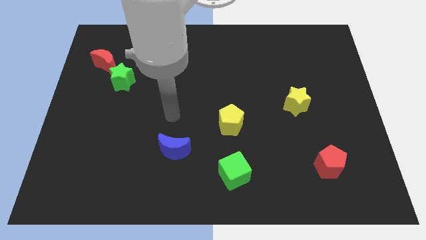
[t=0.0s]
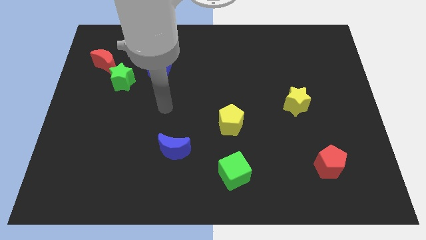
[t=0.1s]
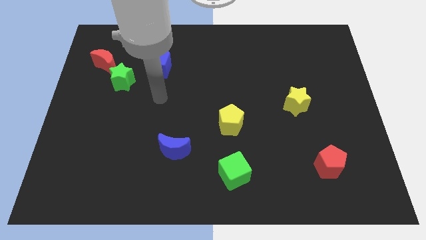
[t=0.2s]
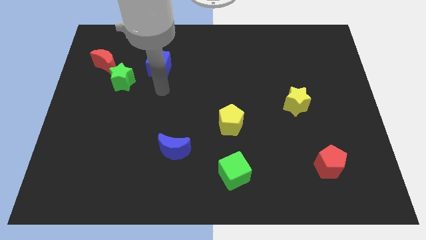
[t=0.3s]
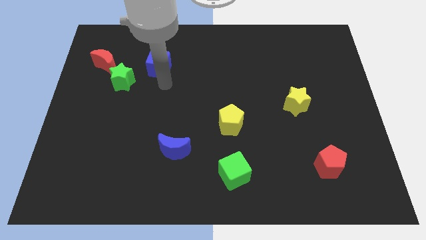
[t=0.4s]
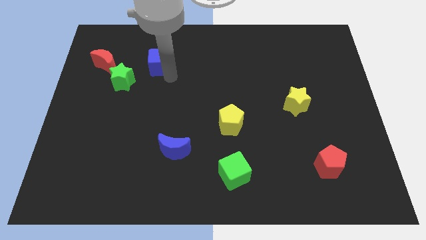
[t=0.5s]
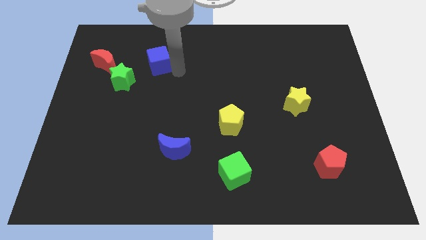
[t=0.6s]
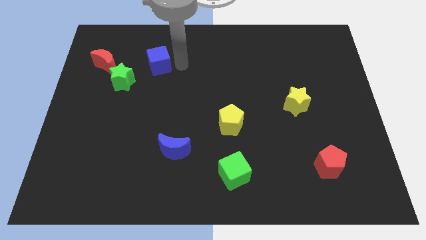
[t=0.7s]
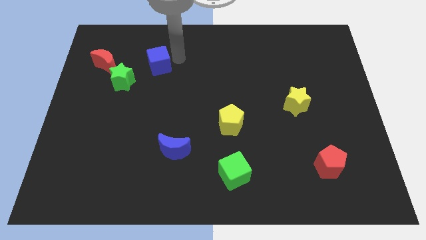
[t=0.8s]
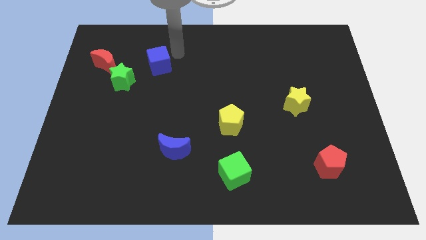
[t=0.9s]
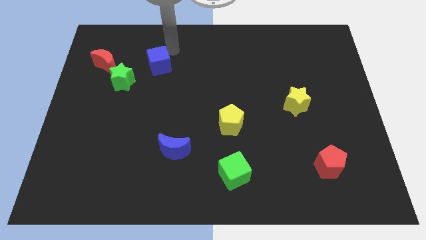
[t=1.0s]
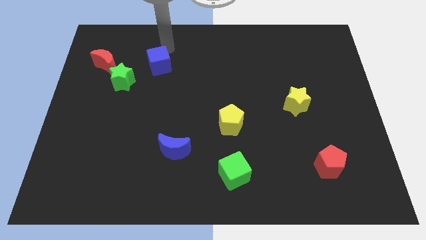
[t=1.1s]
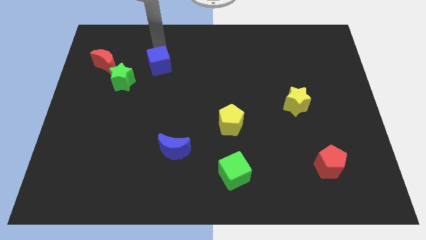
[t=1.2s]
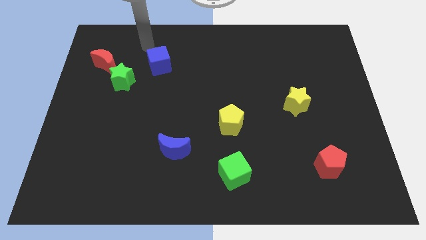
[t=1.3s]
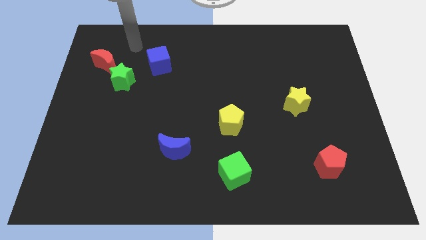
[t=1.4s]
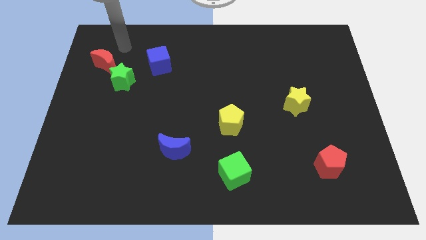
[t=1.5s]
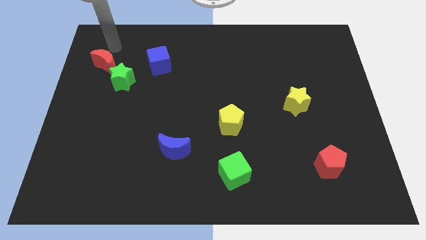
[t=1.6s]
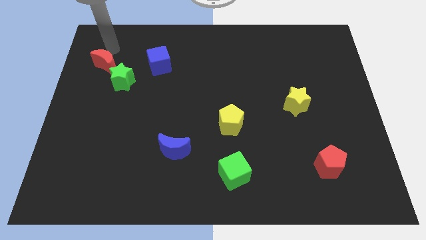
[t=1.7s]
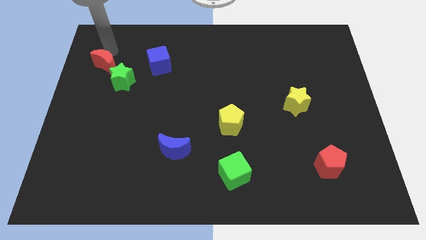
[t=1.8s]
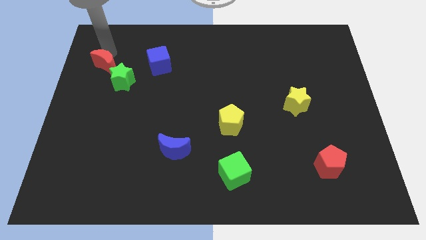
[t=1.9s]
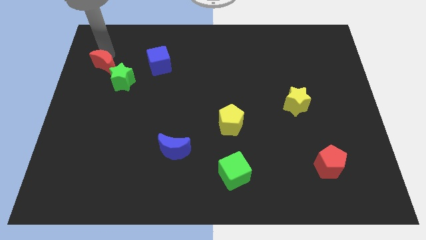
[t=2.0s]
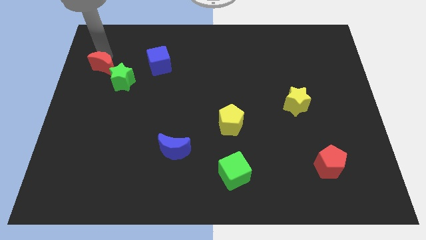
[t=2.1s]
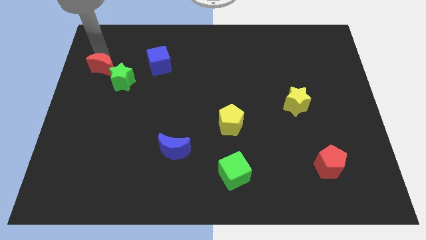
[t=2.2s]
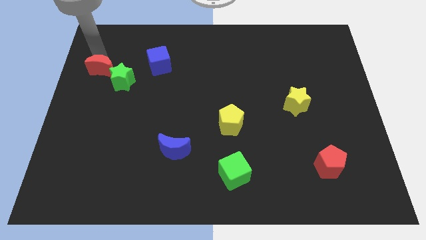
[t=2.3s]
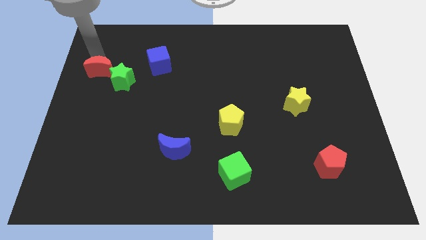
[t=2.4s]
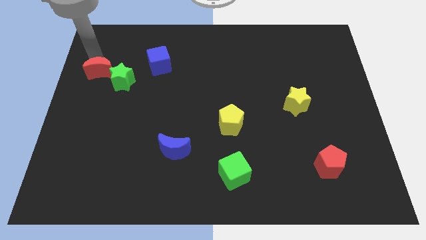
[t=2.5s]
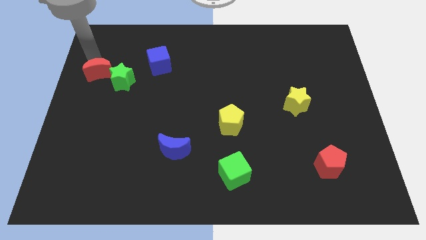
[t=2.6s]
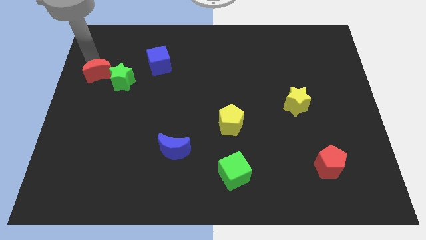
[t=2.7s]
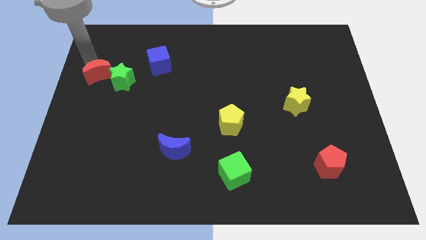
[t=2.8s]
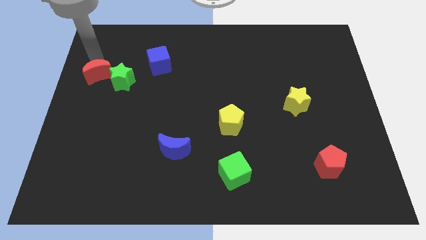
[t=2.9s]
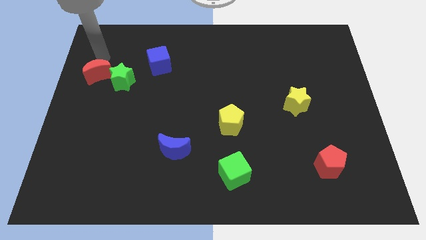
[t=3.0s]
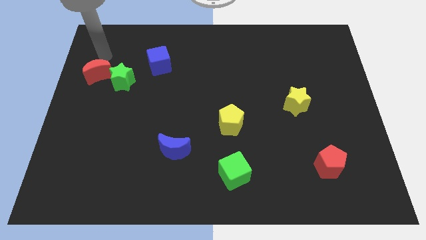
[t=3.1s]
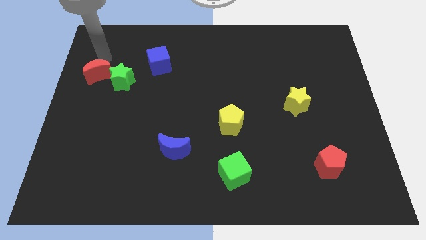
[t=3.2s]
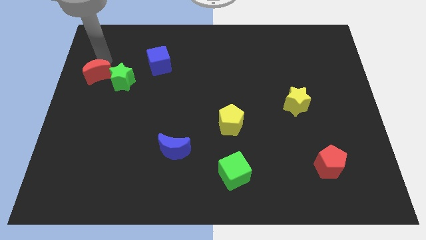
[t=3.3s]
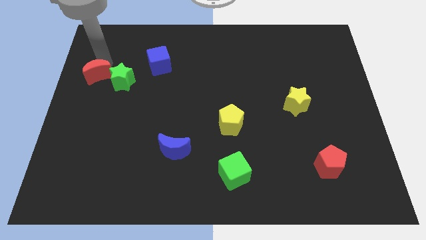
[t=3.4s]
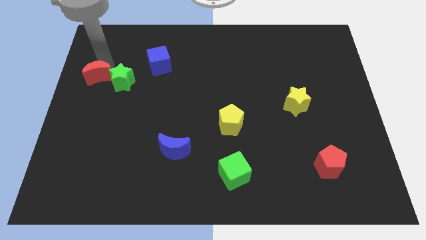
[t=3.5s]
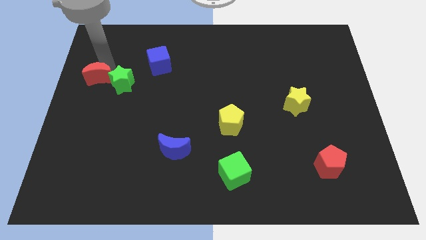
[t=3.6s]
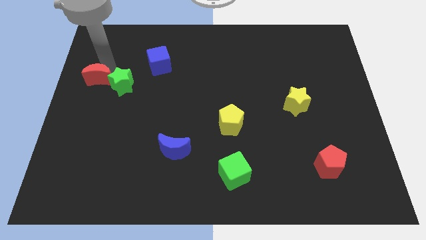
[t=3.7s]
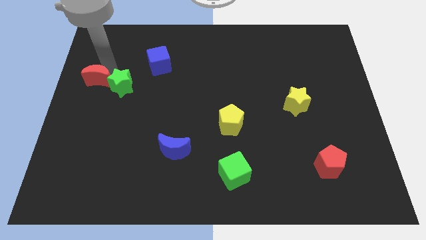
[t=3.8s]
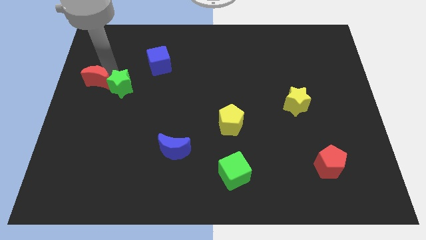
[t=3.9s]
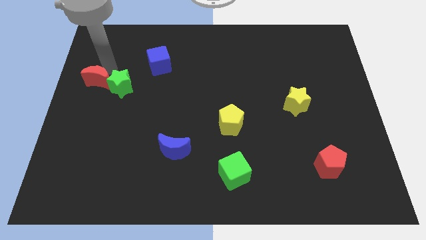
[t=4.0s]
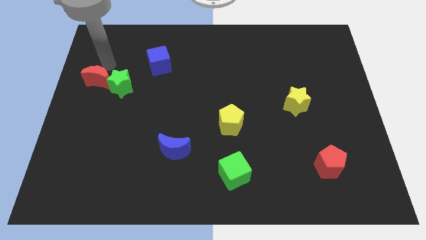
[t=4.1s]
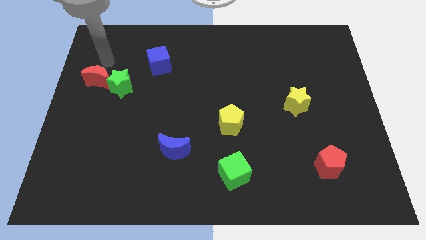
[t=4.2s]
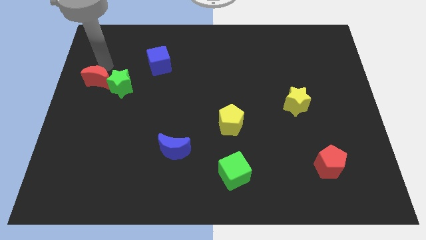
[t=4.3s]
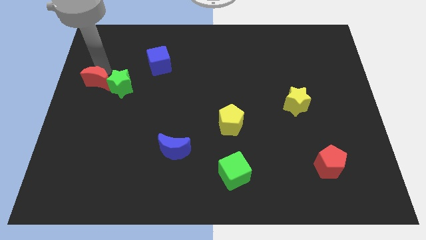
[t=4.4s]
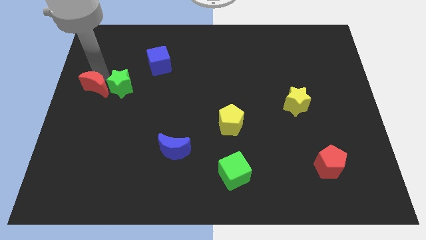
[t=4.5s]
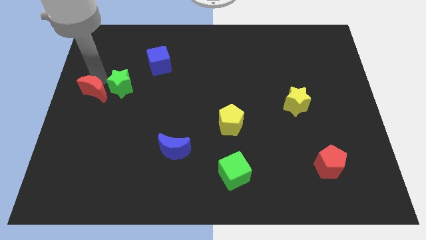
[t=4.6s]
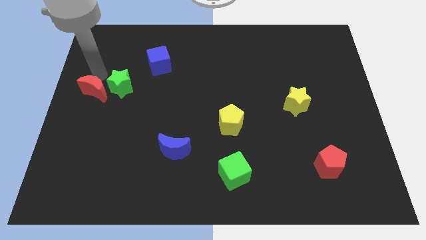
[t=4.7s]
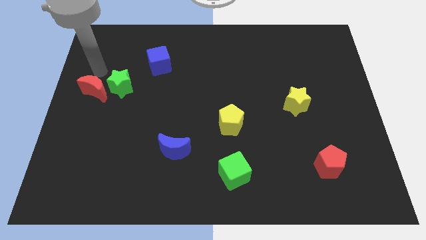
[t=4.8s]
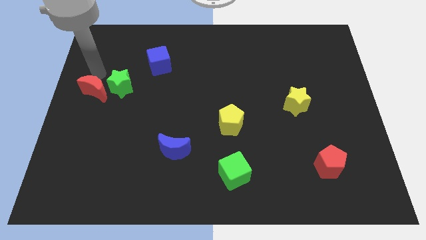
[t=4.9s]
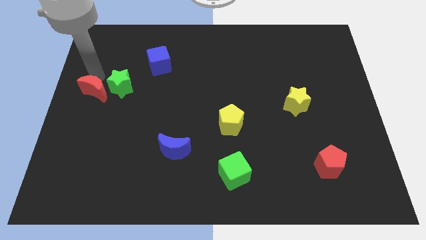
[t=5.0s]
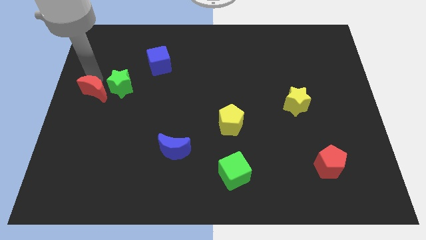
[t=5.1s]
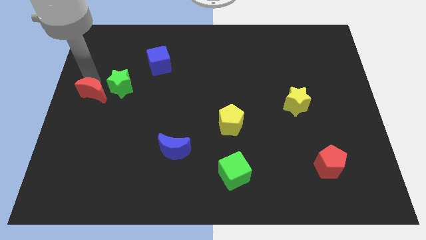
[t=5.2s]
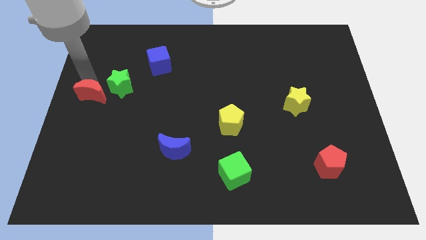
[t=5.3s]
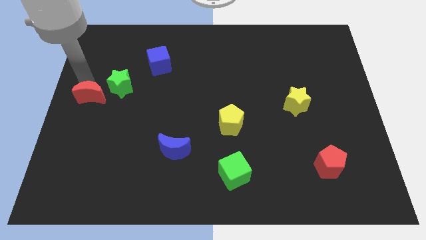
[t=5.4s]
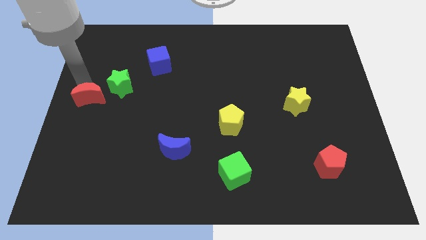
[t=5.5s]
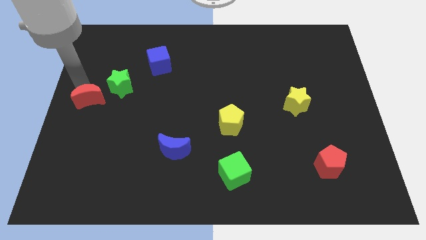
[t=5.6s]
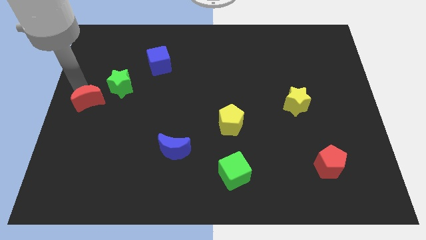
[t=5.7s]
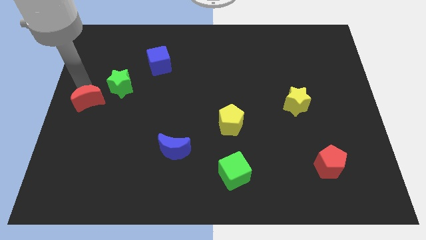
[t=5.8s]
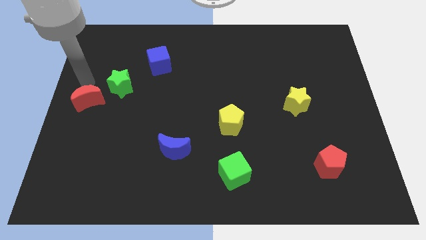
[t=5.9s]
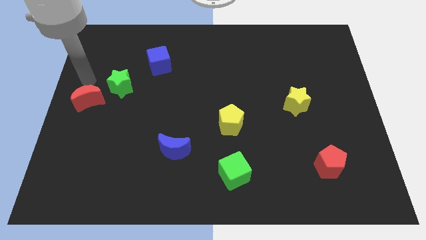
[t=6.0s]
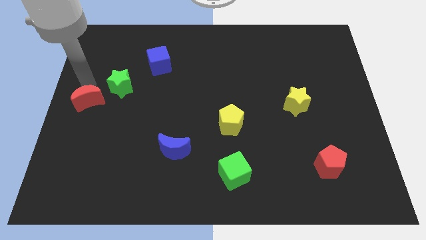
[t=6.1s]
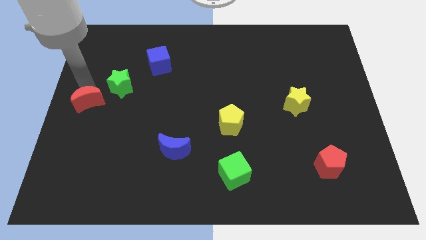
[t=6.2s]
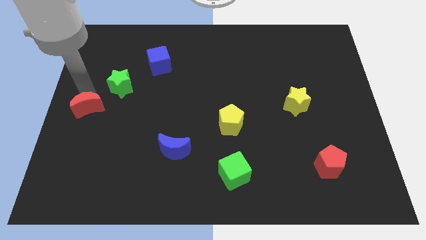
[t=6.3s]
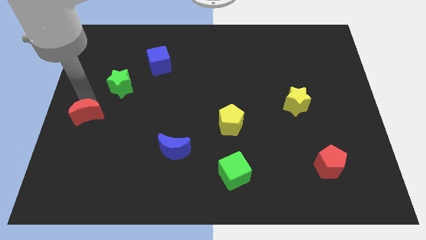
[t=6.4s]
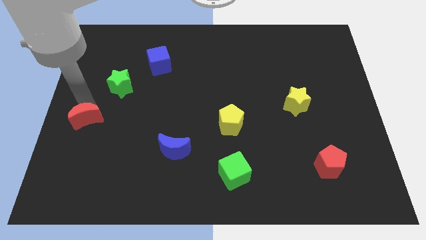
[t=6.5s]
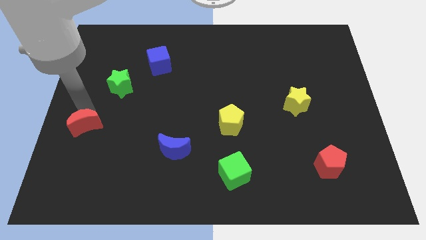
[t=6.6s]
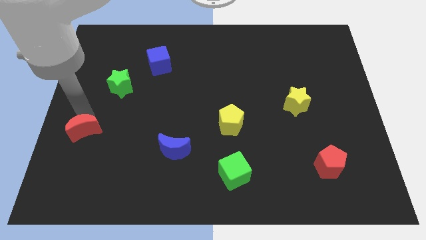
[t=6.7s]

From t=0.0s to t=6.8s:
move the red moon down

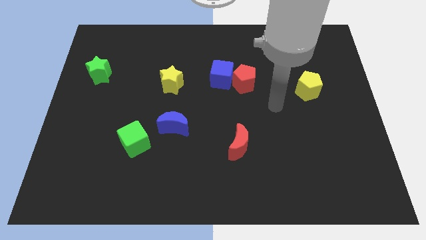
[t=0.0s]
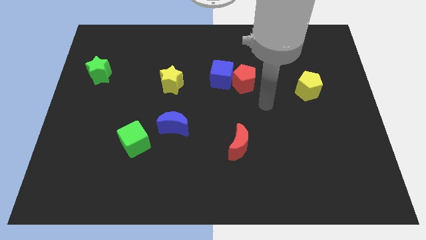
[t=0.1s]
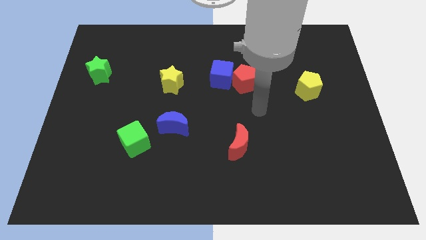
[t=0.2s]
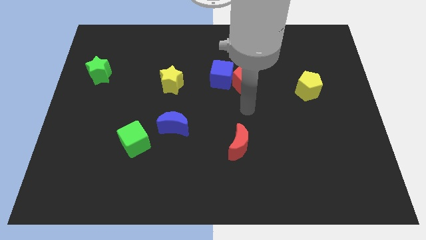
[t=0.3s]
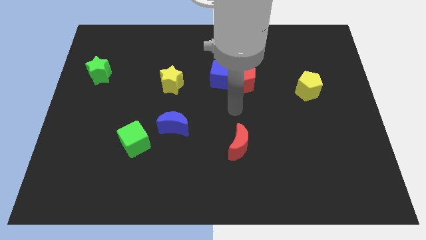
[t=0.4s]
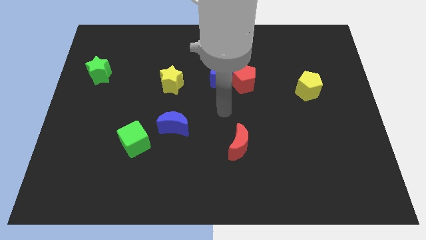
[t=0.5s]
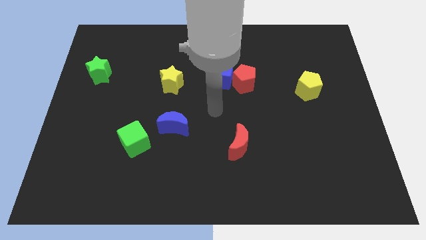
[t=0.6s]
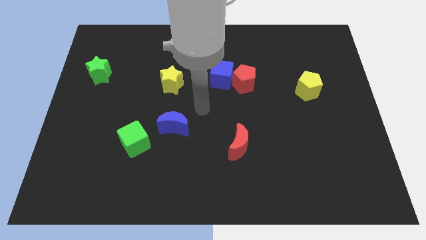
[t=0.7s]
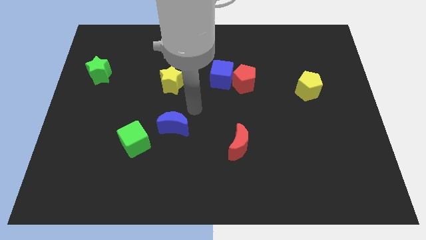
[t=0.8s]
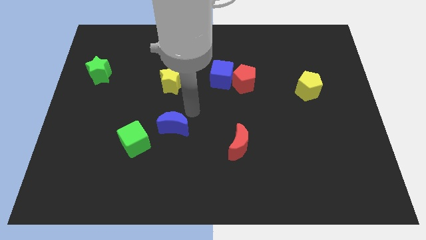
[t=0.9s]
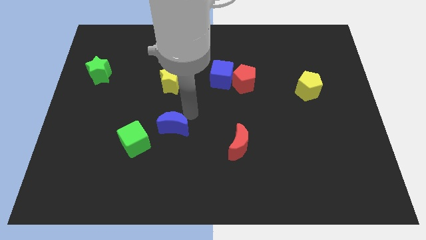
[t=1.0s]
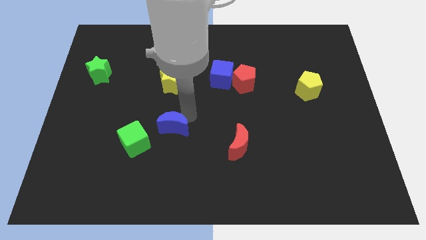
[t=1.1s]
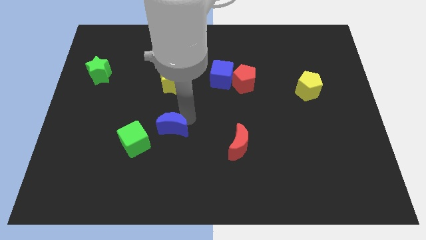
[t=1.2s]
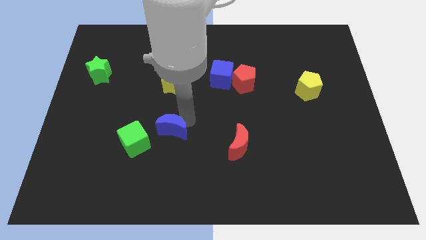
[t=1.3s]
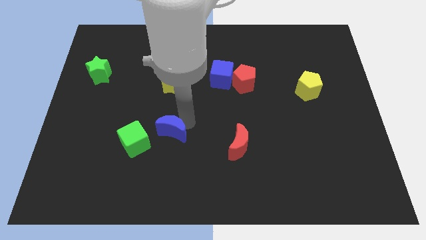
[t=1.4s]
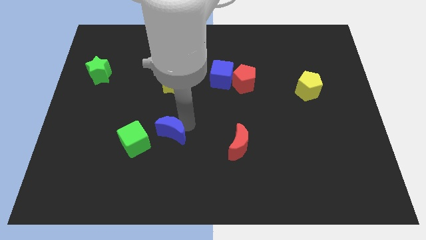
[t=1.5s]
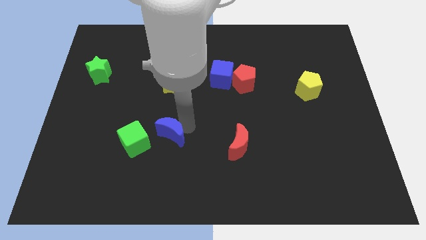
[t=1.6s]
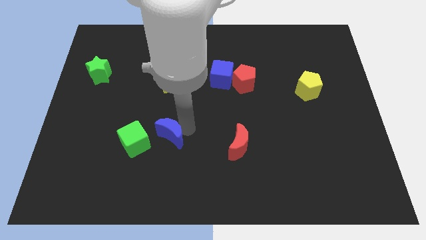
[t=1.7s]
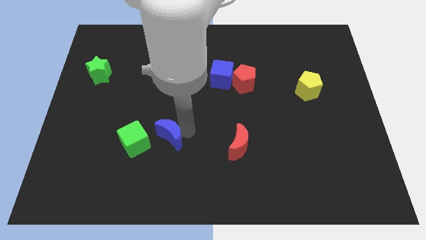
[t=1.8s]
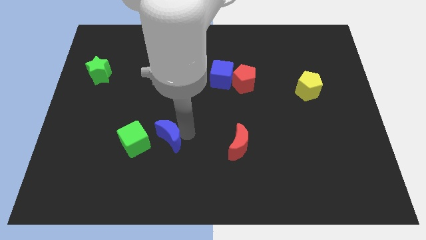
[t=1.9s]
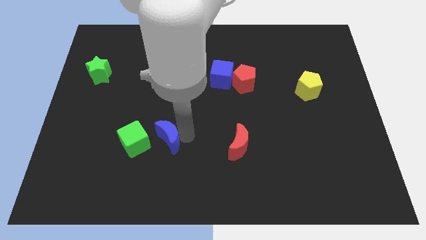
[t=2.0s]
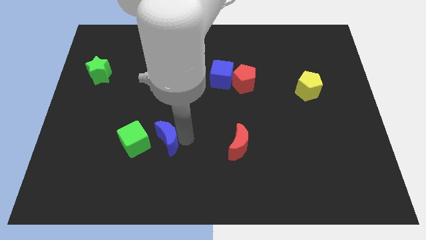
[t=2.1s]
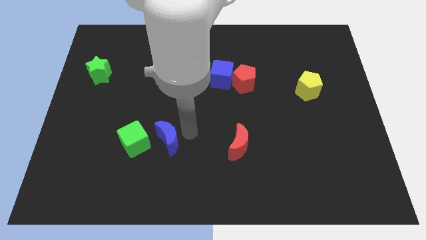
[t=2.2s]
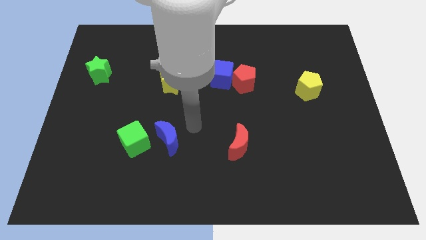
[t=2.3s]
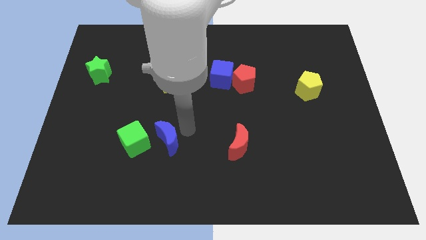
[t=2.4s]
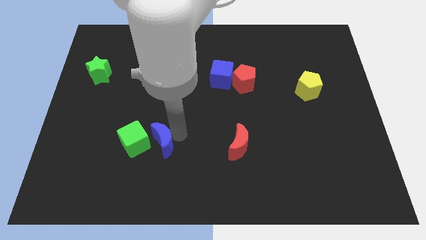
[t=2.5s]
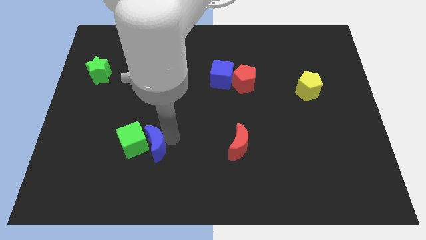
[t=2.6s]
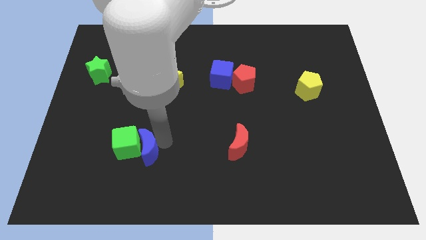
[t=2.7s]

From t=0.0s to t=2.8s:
slightly move the blue moon down and then left
